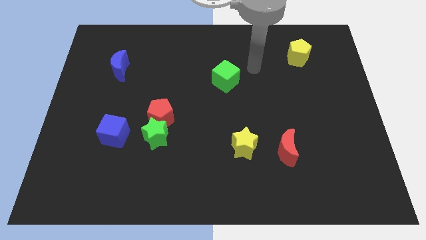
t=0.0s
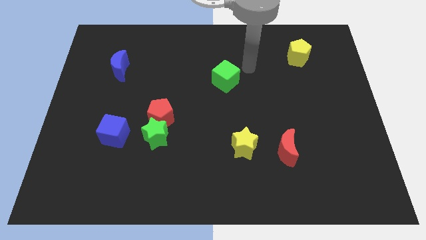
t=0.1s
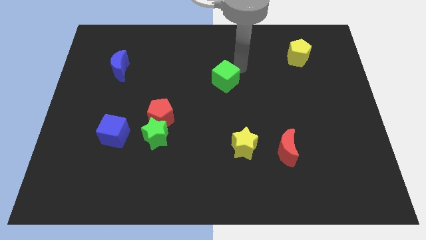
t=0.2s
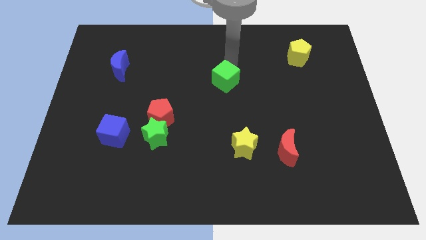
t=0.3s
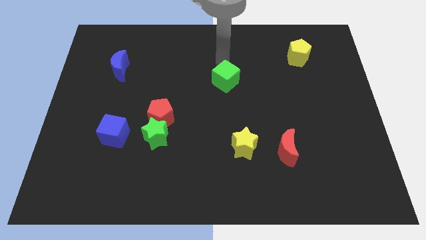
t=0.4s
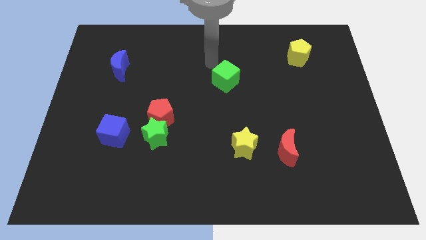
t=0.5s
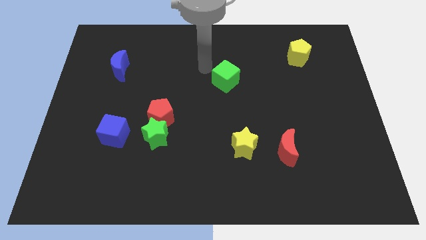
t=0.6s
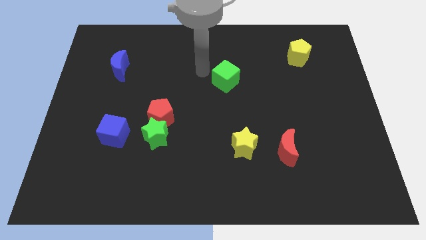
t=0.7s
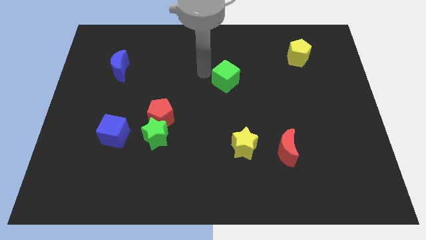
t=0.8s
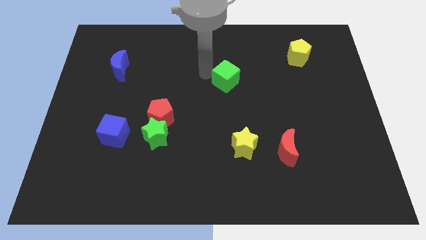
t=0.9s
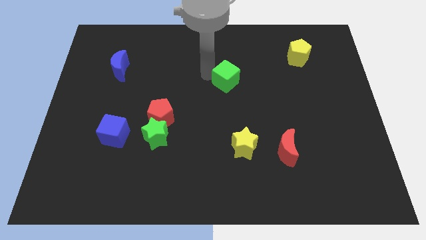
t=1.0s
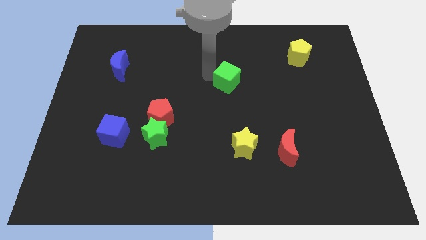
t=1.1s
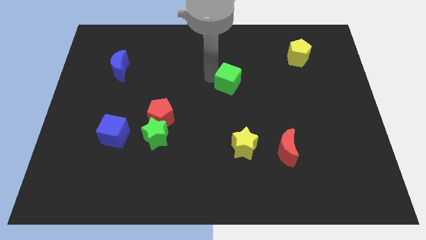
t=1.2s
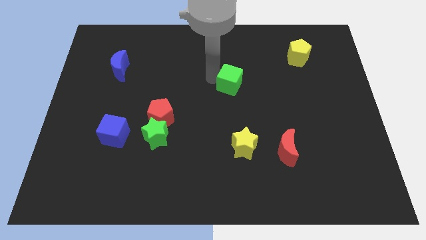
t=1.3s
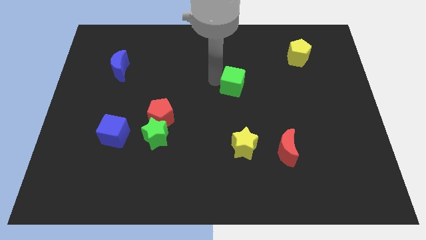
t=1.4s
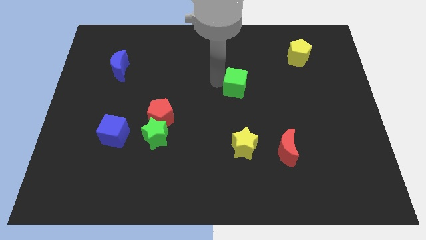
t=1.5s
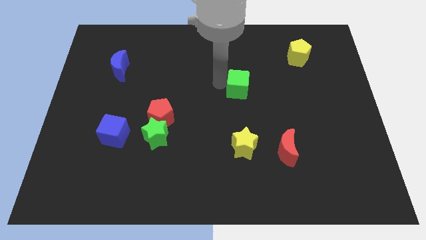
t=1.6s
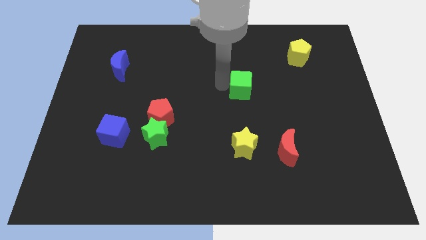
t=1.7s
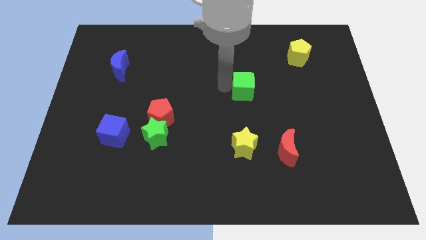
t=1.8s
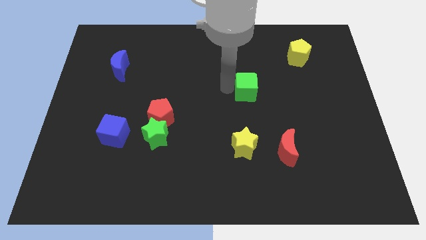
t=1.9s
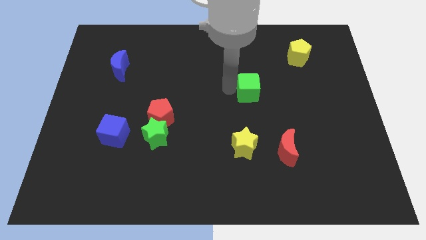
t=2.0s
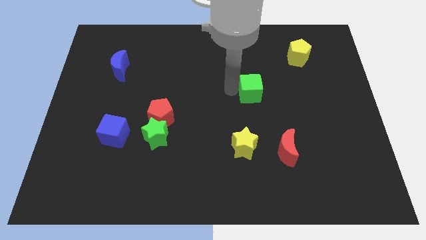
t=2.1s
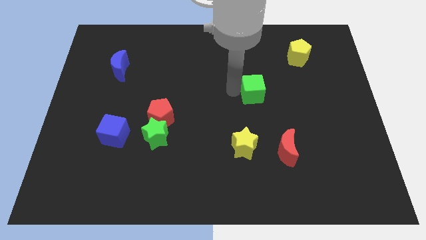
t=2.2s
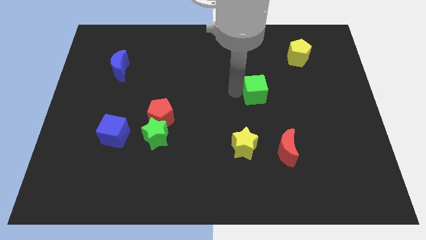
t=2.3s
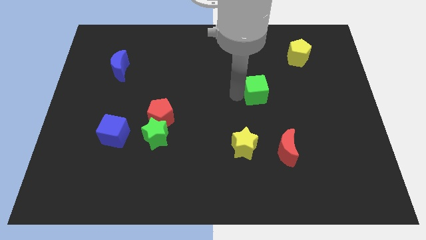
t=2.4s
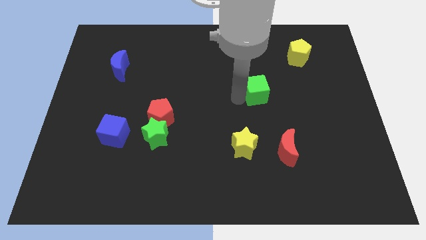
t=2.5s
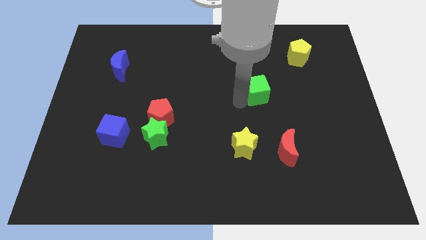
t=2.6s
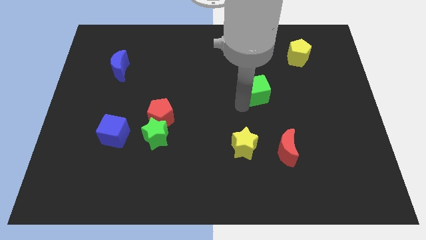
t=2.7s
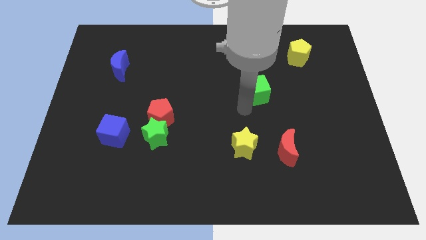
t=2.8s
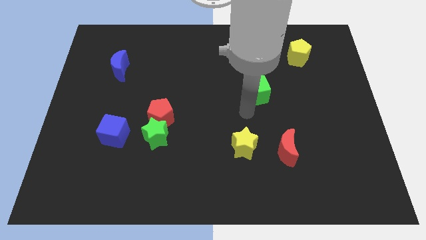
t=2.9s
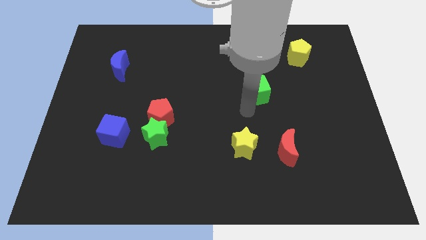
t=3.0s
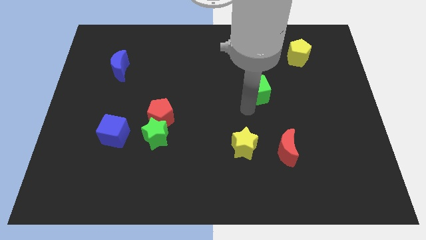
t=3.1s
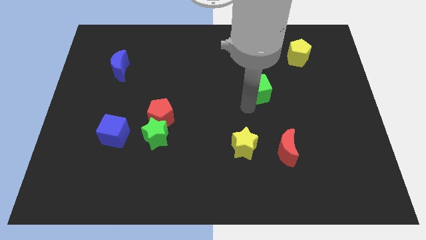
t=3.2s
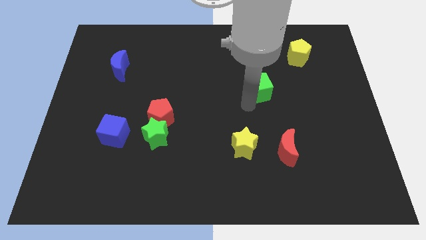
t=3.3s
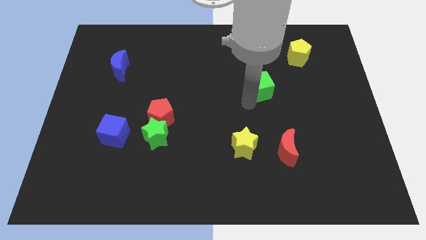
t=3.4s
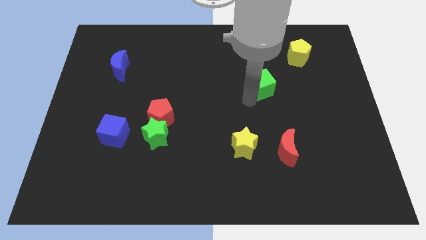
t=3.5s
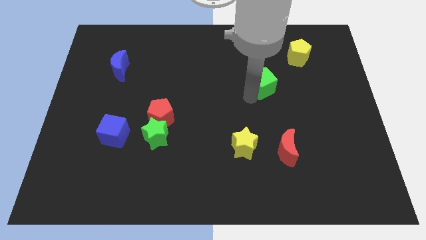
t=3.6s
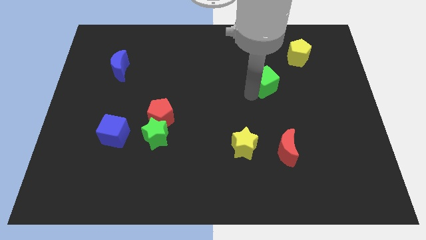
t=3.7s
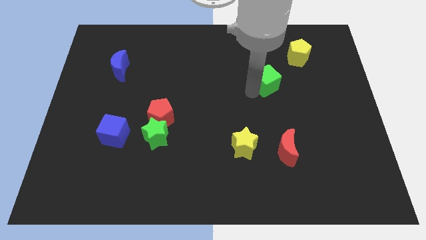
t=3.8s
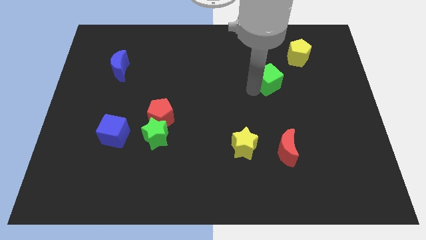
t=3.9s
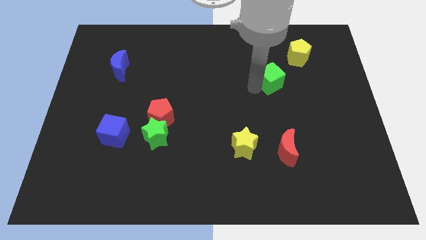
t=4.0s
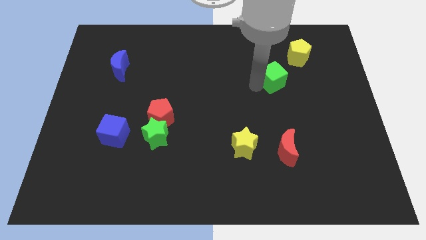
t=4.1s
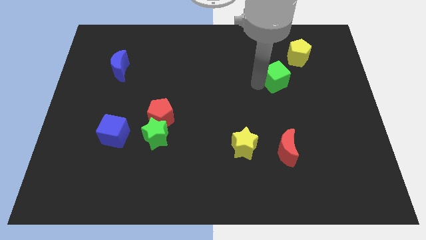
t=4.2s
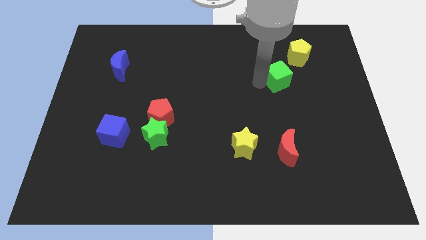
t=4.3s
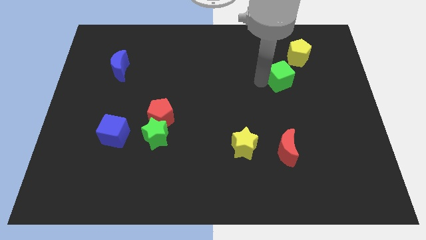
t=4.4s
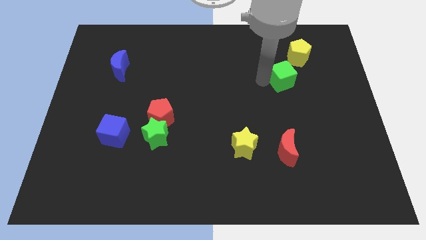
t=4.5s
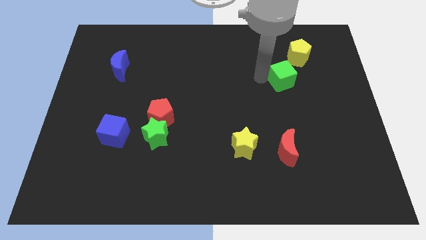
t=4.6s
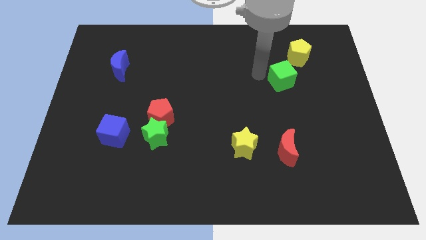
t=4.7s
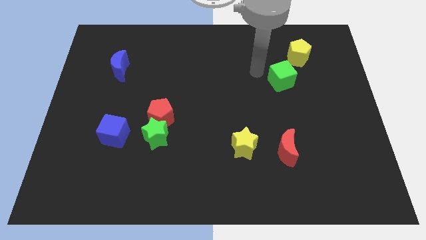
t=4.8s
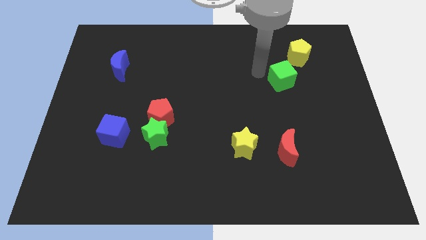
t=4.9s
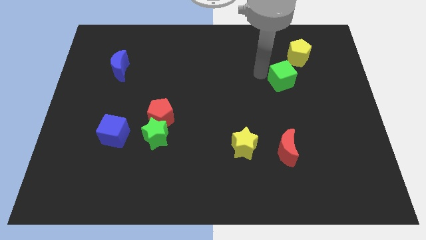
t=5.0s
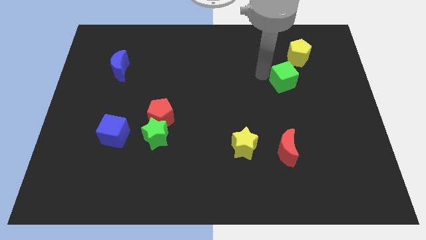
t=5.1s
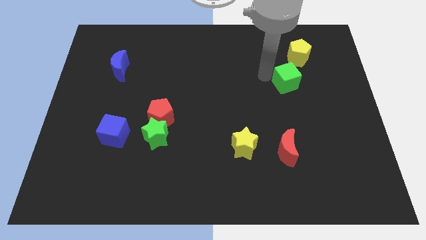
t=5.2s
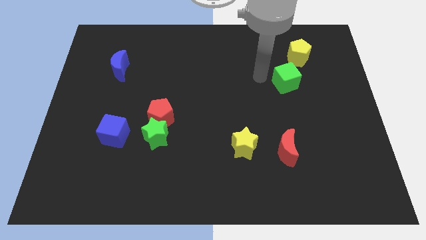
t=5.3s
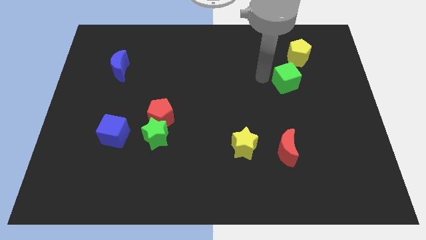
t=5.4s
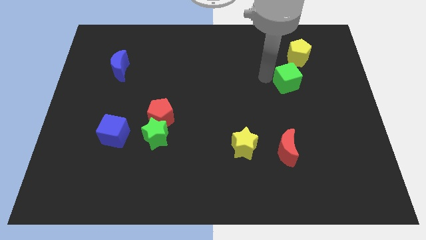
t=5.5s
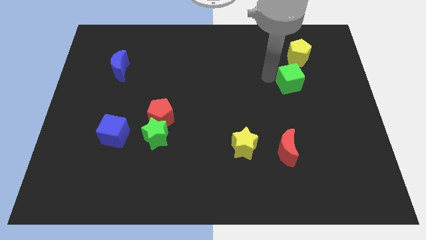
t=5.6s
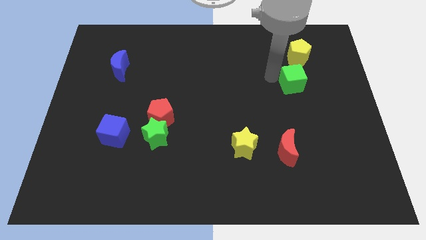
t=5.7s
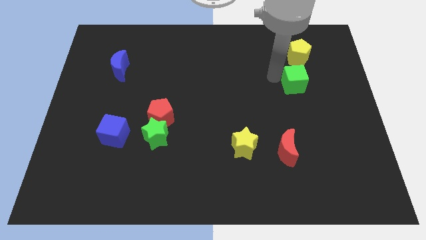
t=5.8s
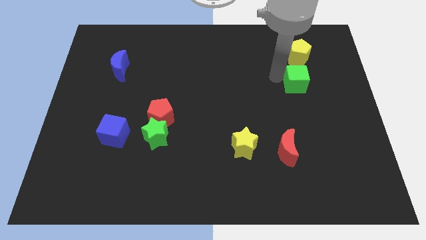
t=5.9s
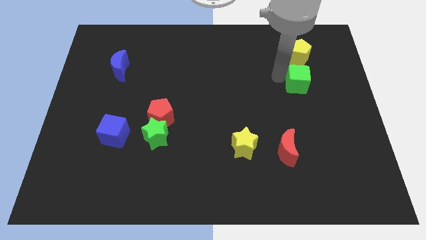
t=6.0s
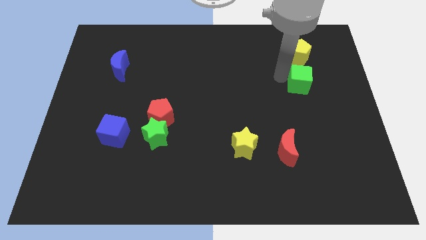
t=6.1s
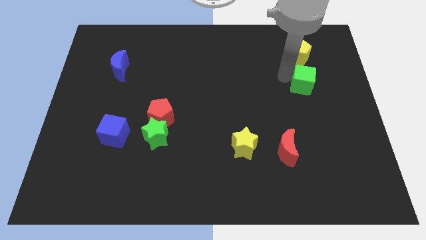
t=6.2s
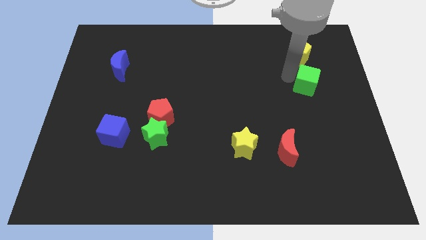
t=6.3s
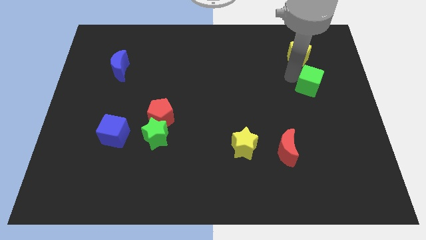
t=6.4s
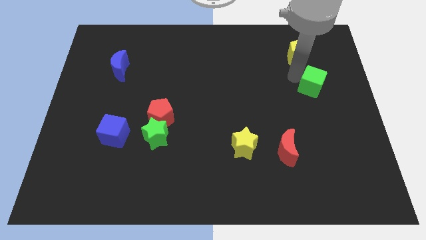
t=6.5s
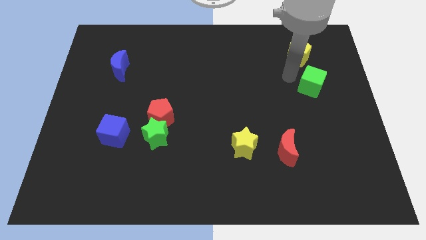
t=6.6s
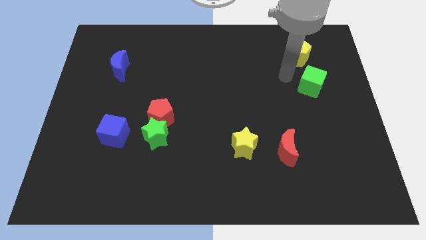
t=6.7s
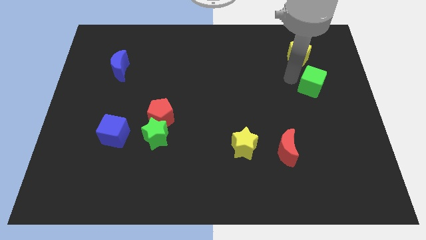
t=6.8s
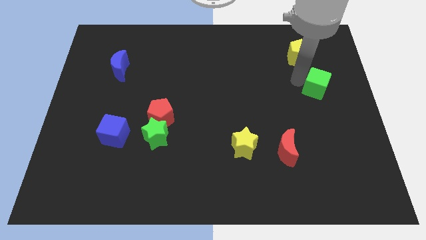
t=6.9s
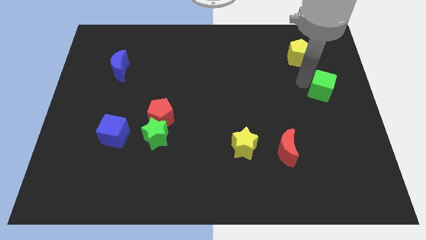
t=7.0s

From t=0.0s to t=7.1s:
push the green cube to the center right
